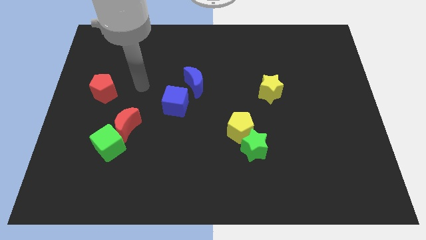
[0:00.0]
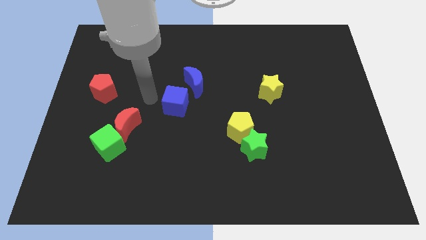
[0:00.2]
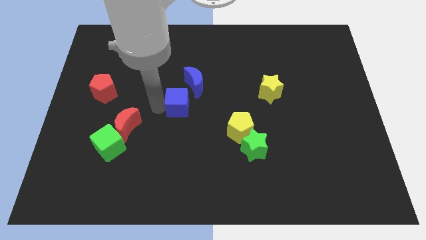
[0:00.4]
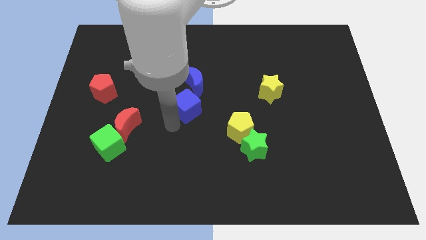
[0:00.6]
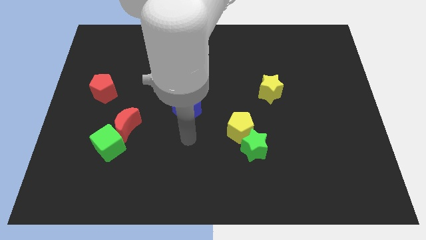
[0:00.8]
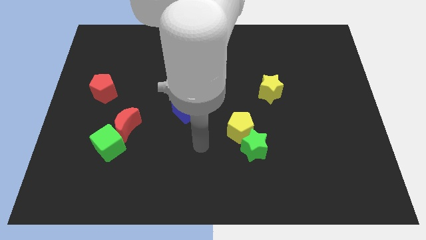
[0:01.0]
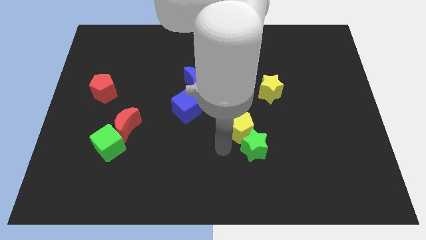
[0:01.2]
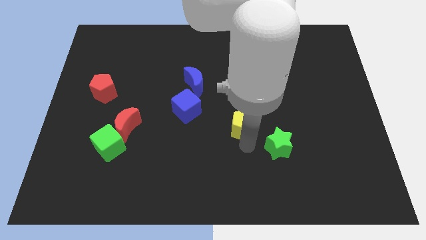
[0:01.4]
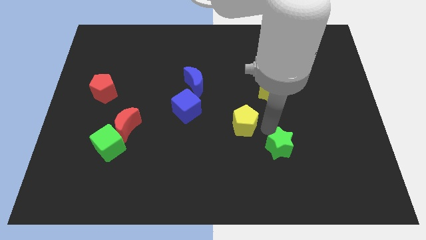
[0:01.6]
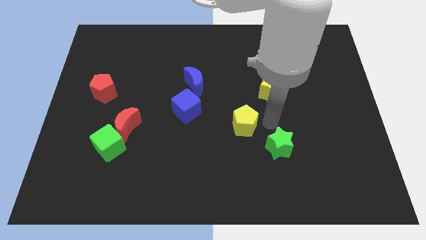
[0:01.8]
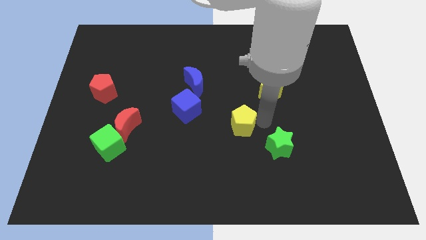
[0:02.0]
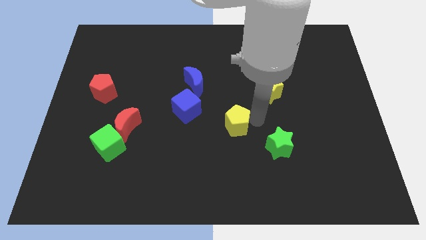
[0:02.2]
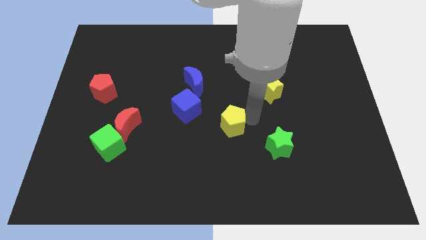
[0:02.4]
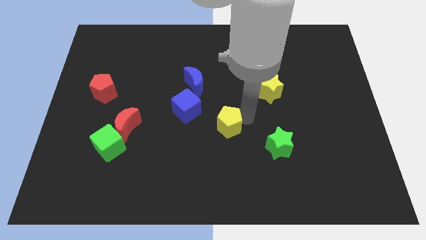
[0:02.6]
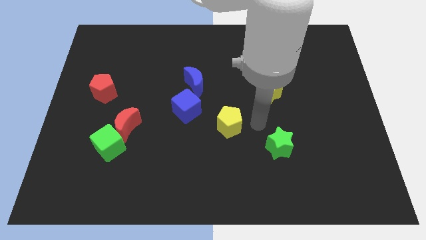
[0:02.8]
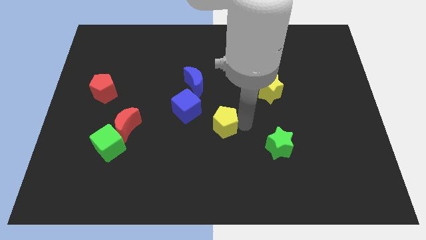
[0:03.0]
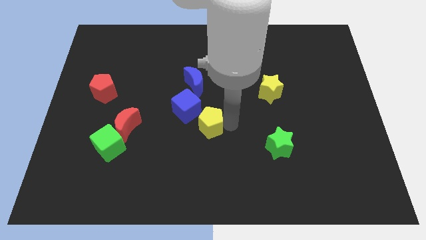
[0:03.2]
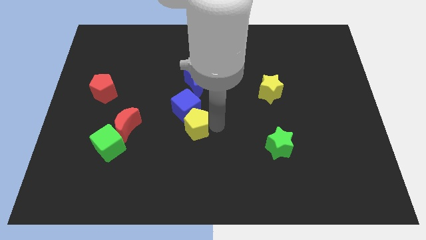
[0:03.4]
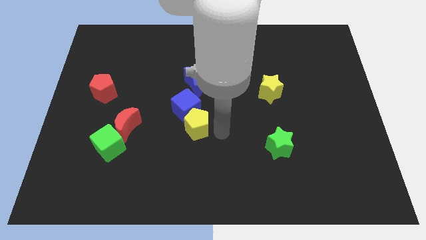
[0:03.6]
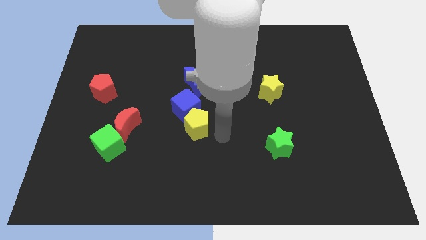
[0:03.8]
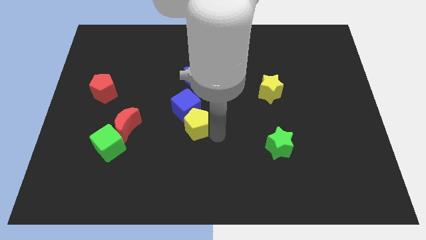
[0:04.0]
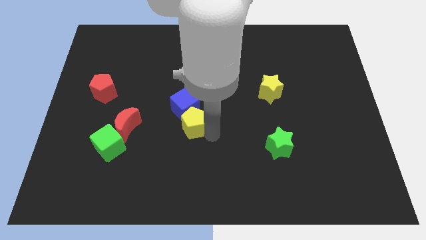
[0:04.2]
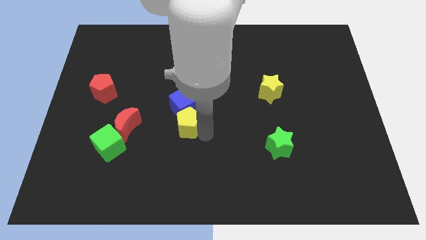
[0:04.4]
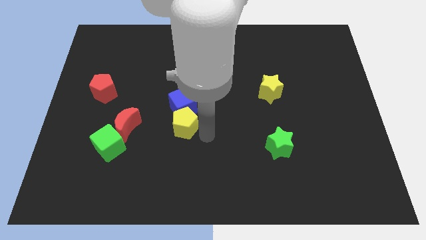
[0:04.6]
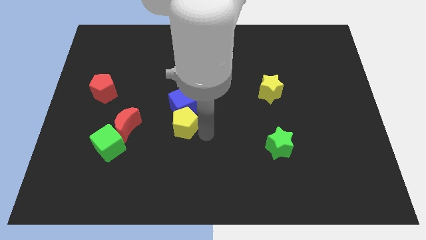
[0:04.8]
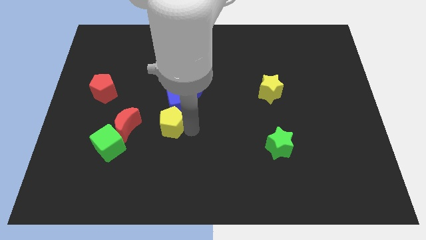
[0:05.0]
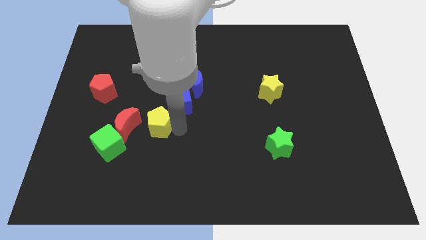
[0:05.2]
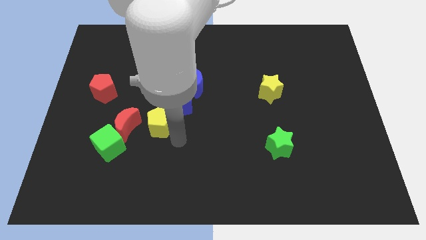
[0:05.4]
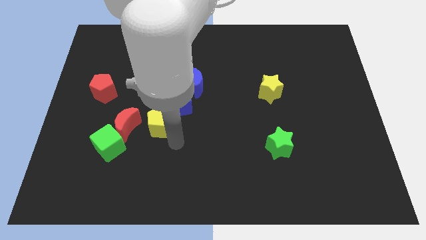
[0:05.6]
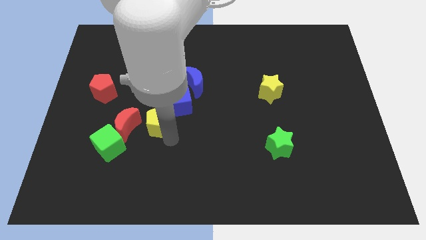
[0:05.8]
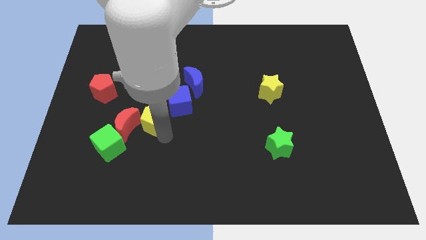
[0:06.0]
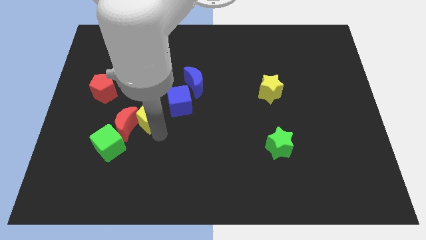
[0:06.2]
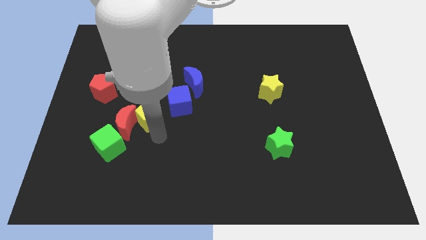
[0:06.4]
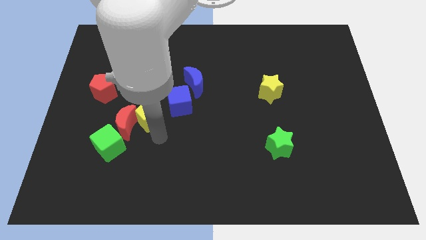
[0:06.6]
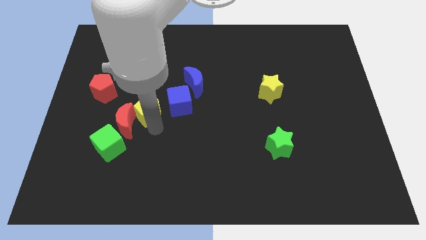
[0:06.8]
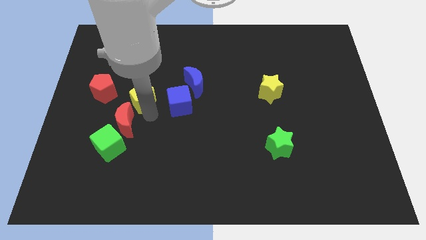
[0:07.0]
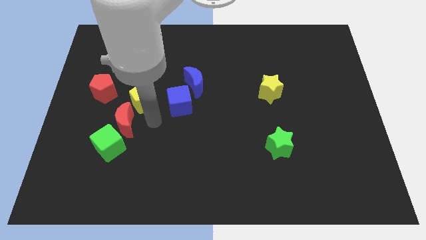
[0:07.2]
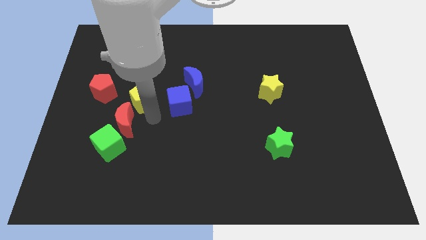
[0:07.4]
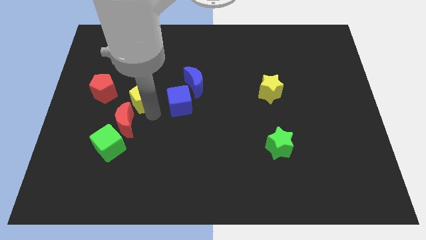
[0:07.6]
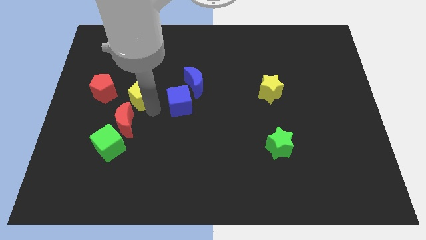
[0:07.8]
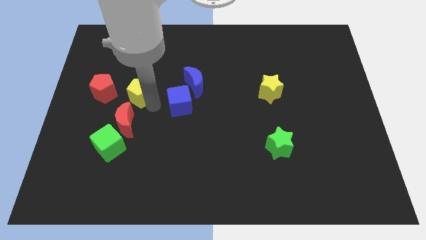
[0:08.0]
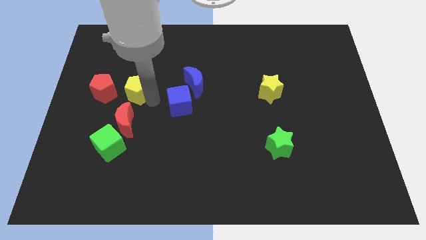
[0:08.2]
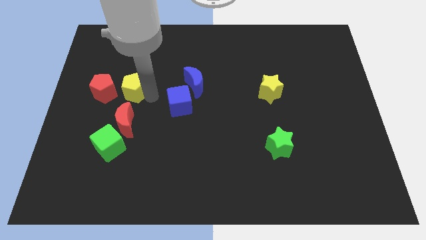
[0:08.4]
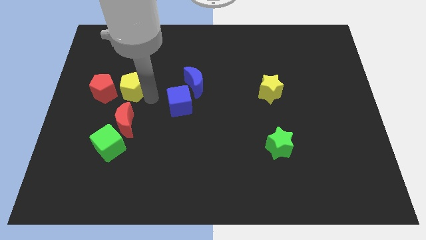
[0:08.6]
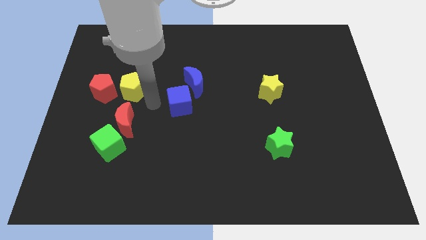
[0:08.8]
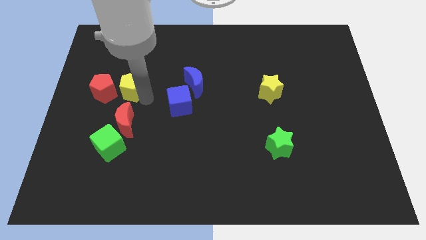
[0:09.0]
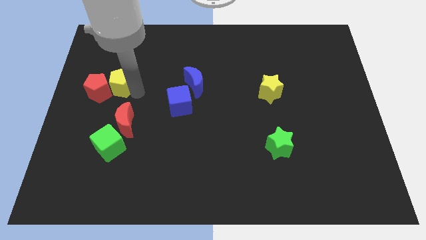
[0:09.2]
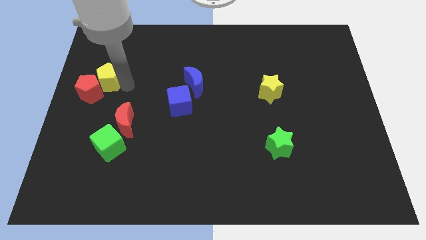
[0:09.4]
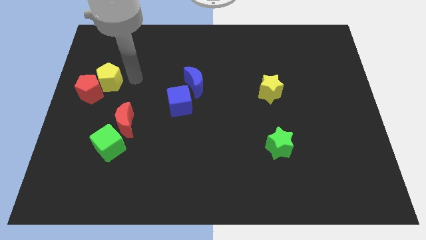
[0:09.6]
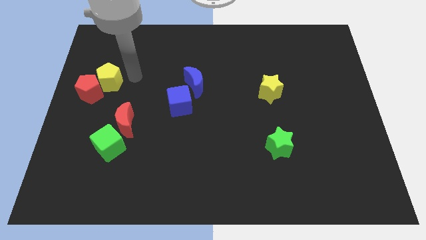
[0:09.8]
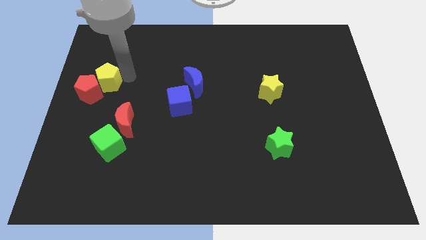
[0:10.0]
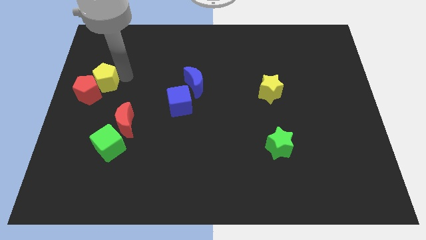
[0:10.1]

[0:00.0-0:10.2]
push the yellow pentagon to the left side of the board

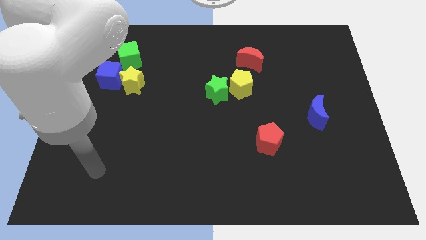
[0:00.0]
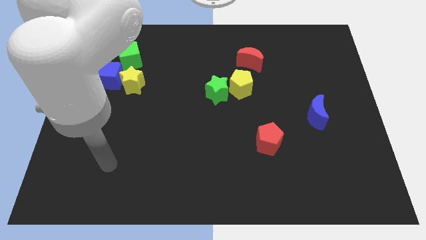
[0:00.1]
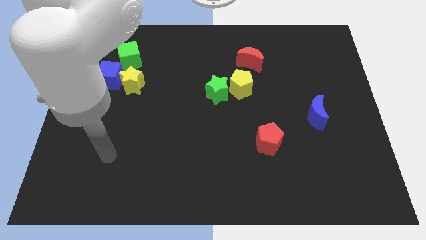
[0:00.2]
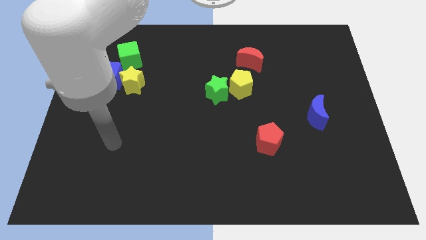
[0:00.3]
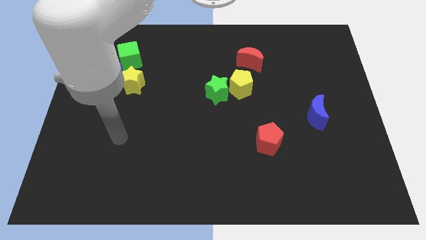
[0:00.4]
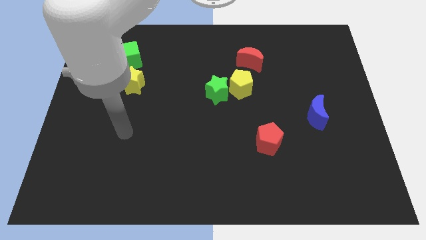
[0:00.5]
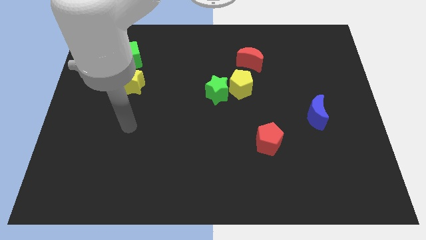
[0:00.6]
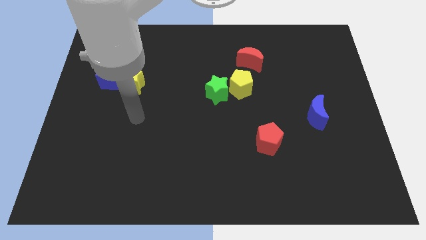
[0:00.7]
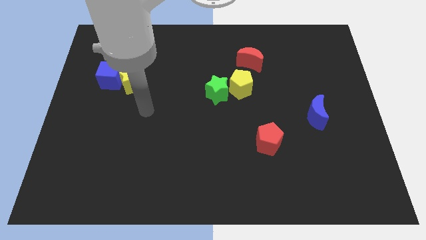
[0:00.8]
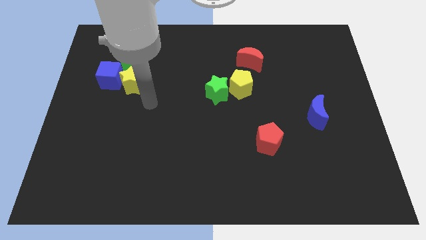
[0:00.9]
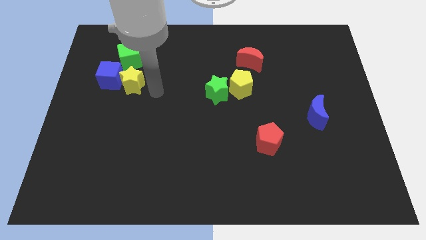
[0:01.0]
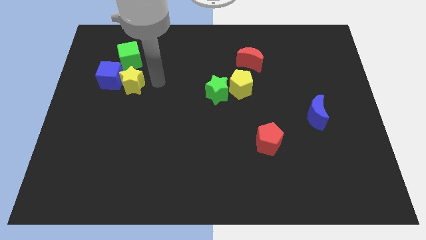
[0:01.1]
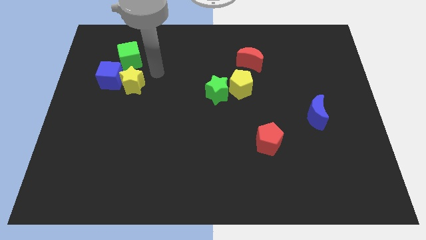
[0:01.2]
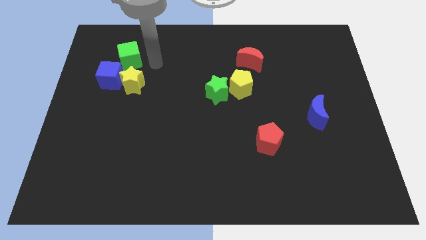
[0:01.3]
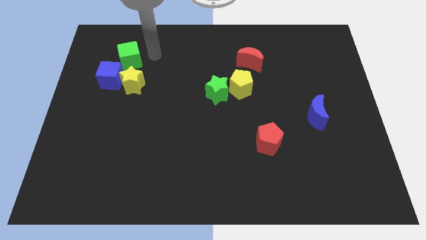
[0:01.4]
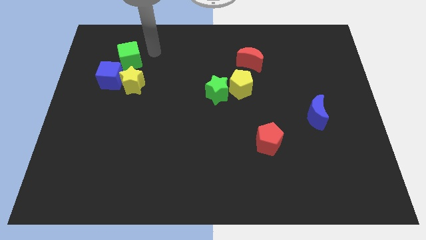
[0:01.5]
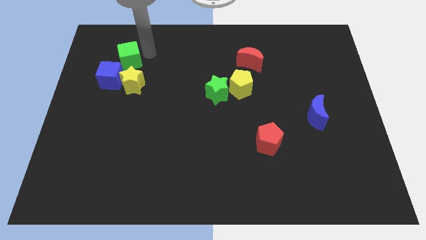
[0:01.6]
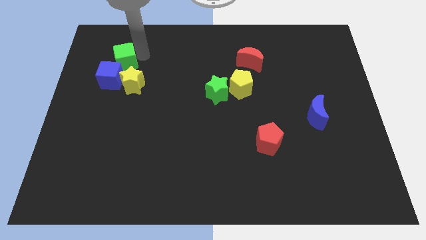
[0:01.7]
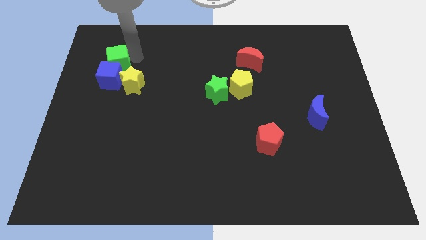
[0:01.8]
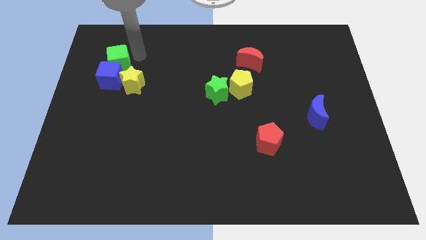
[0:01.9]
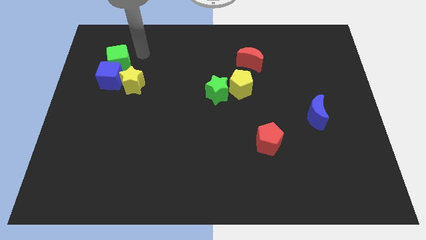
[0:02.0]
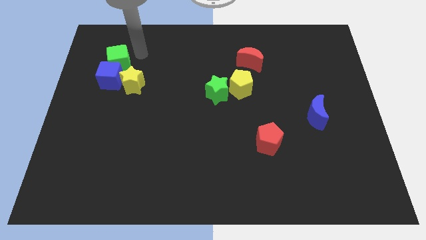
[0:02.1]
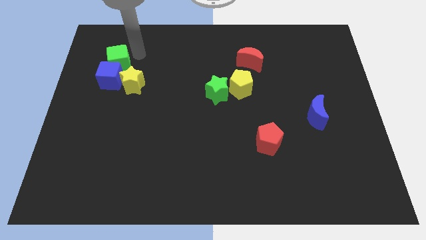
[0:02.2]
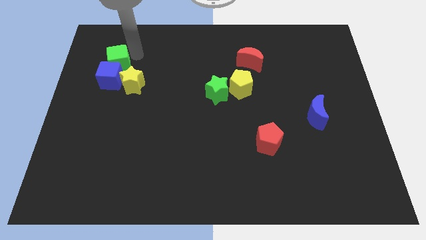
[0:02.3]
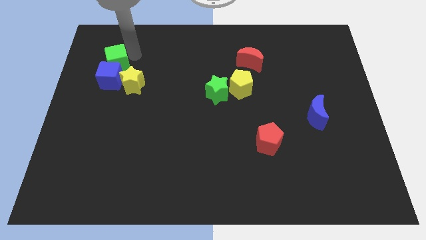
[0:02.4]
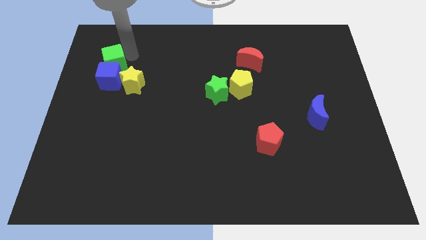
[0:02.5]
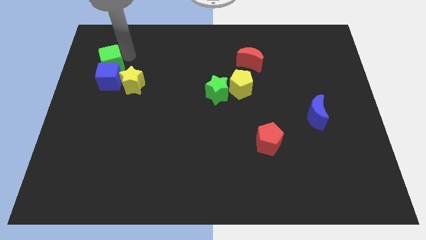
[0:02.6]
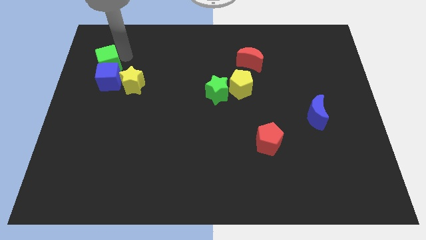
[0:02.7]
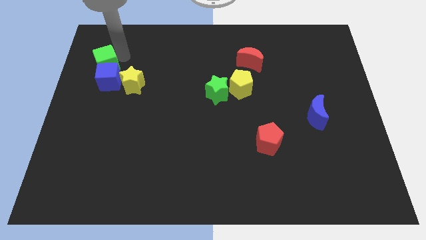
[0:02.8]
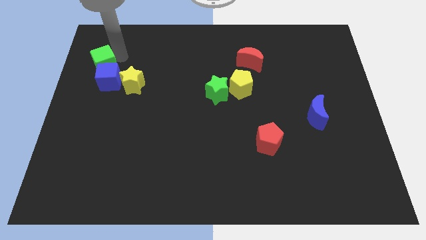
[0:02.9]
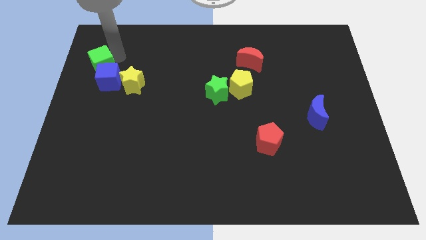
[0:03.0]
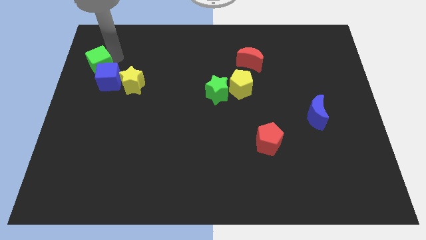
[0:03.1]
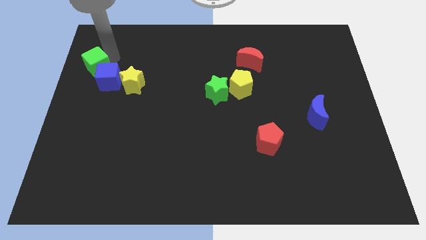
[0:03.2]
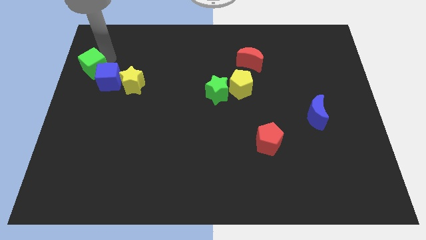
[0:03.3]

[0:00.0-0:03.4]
put the green cube to the left side of the board
